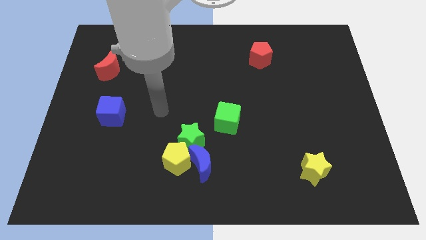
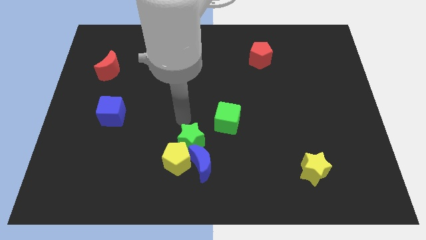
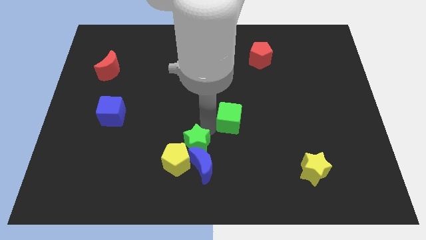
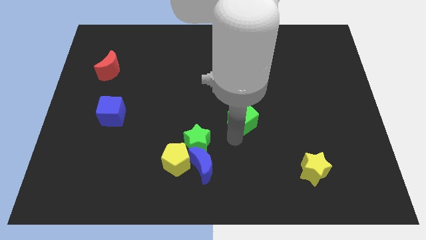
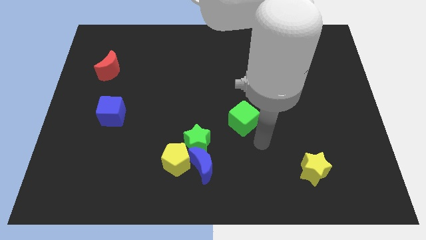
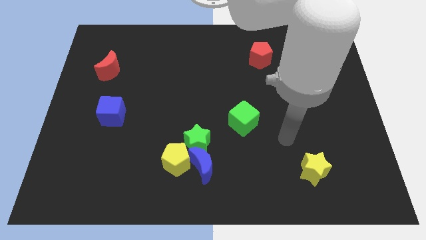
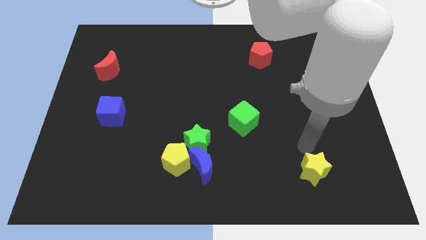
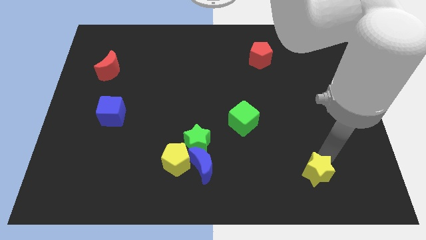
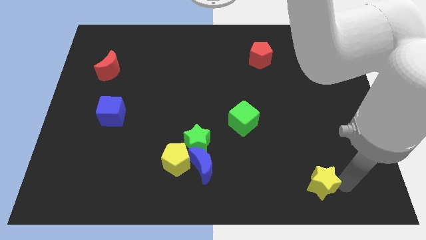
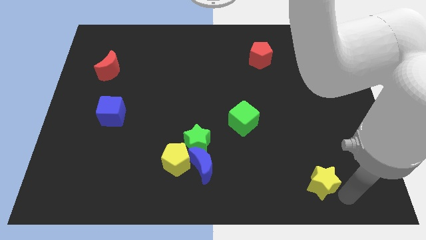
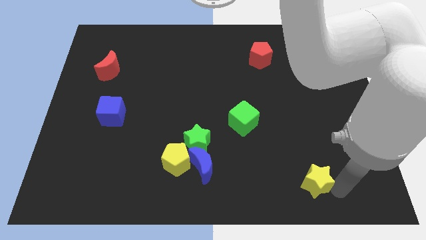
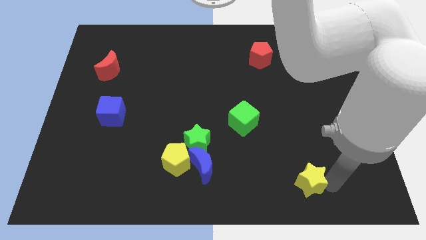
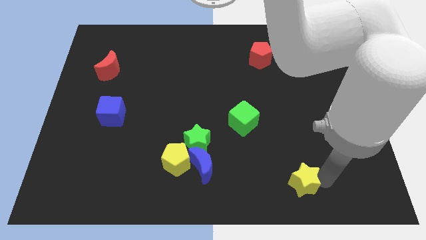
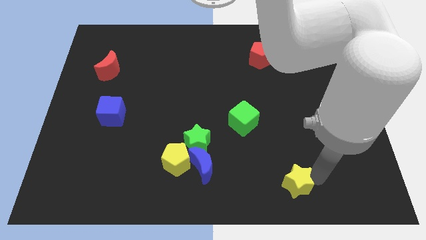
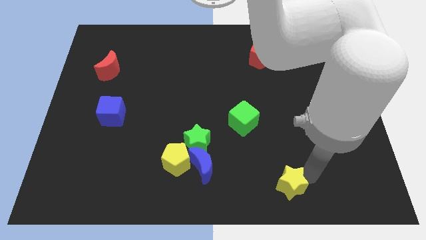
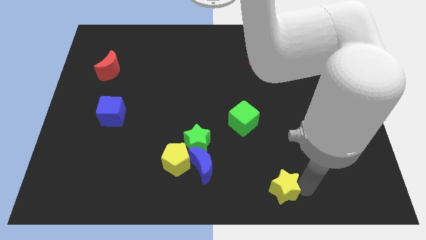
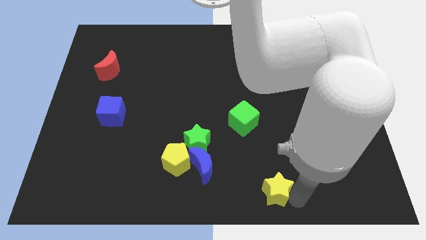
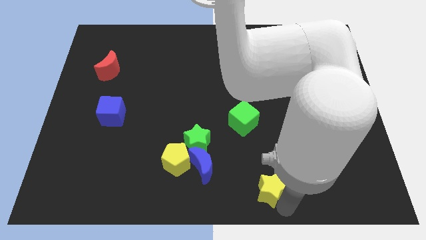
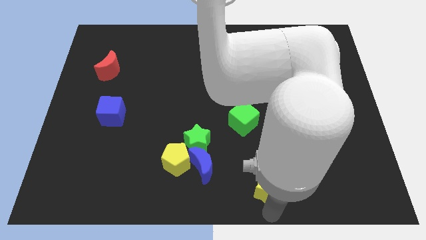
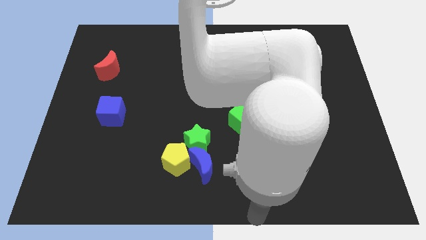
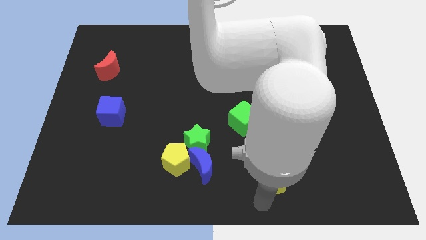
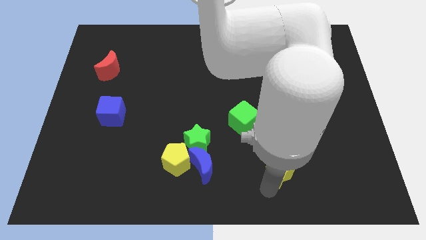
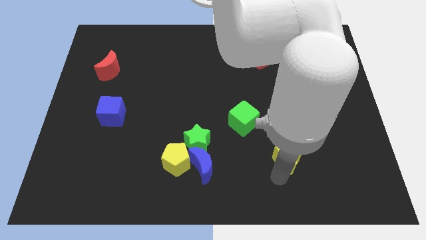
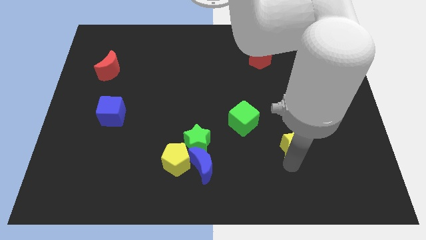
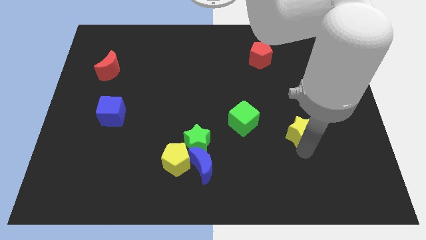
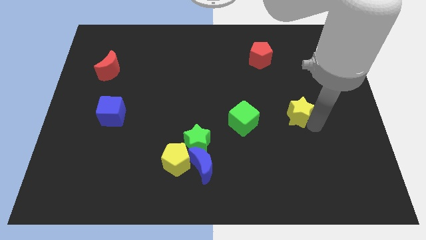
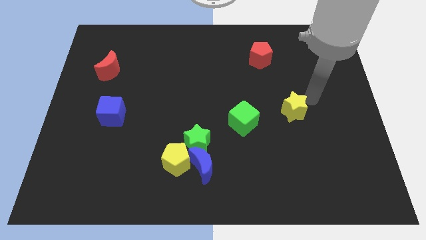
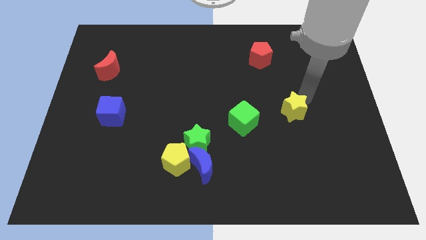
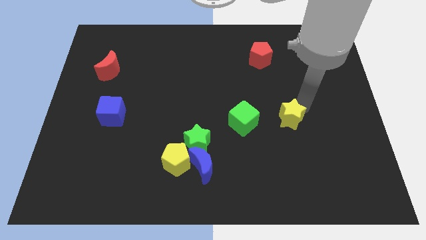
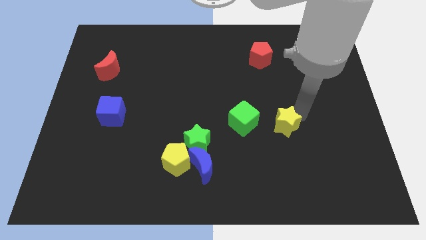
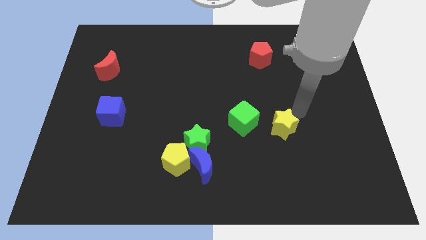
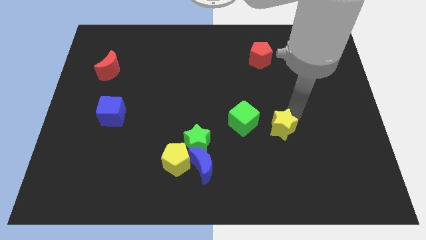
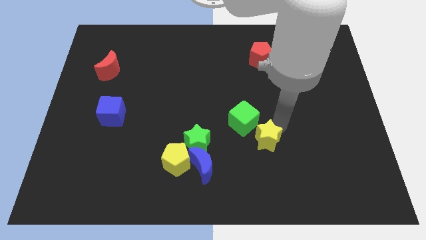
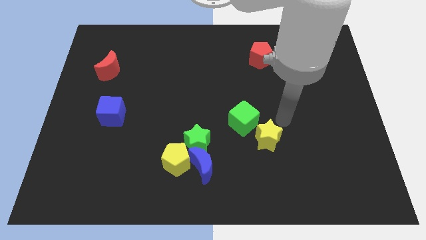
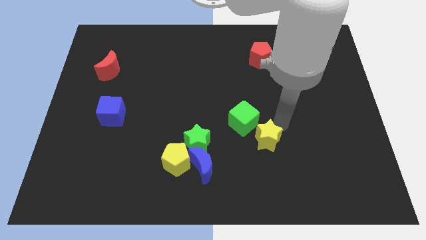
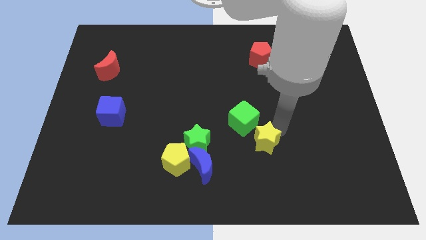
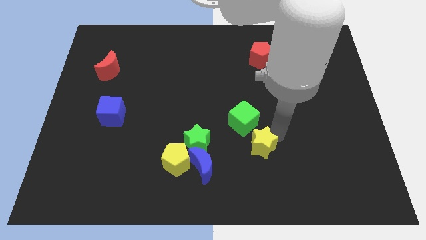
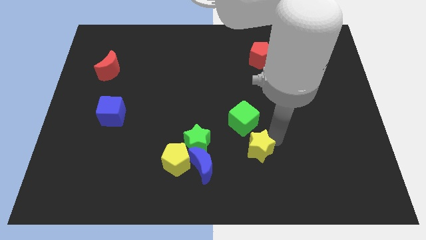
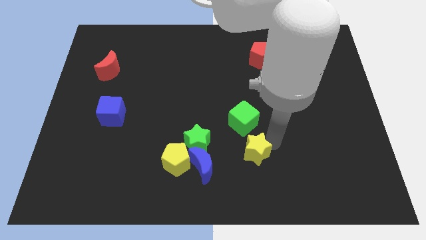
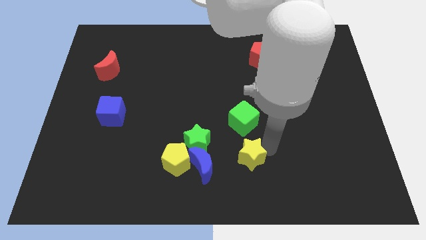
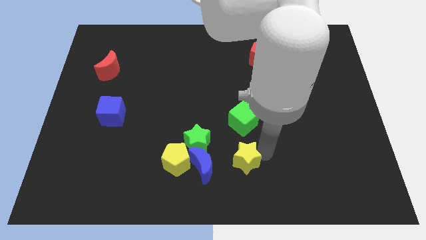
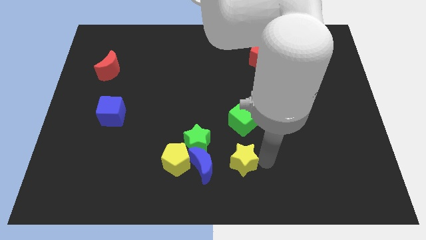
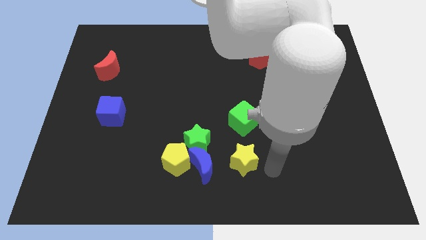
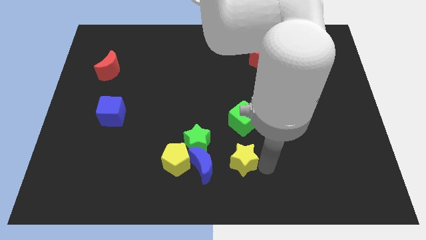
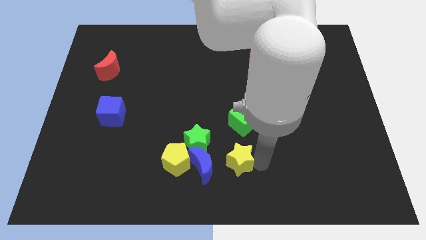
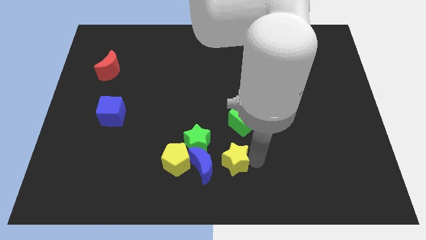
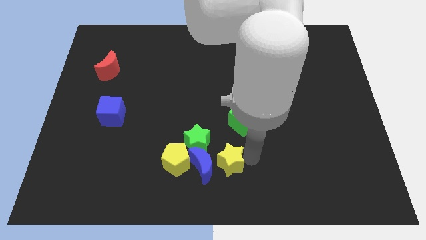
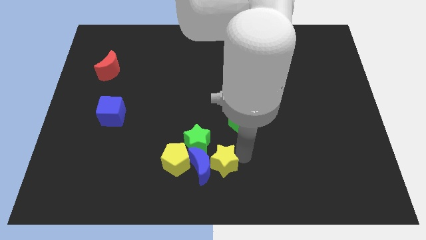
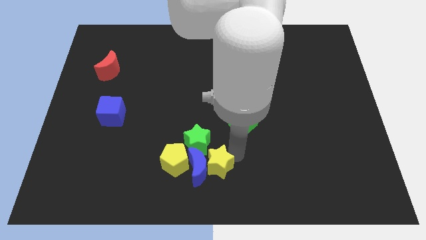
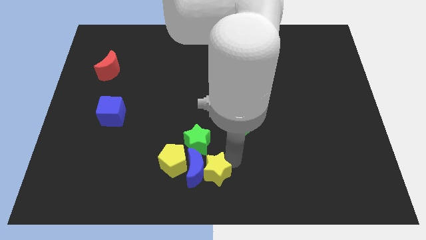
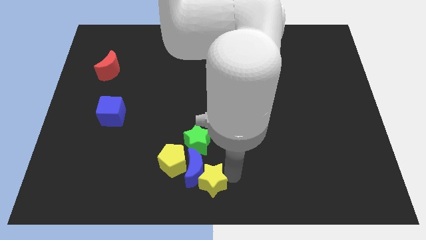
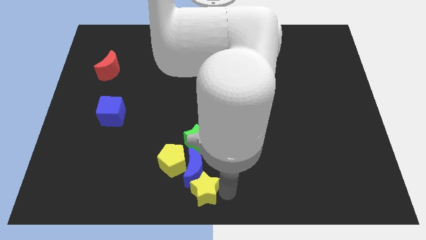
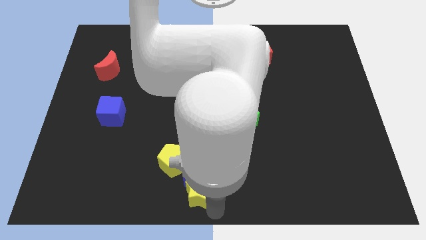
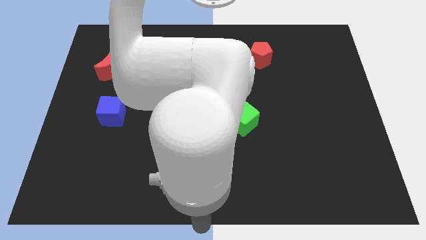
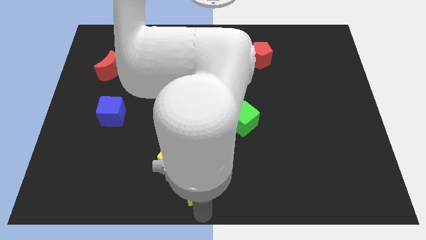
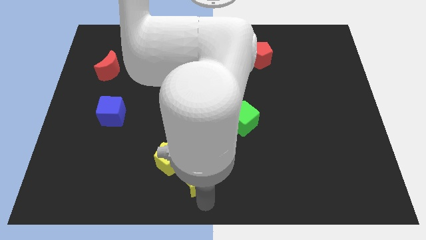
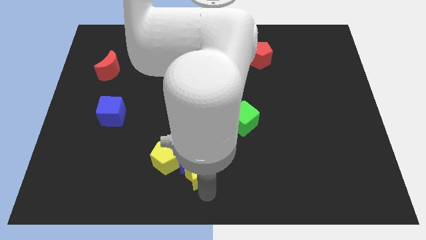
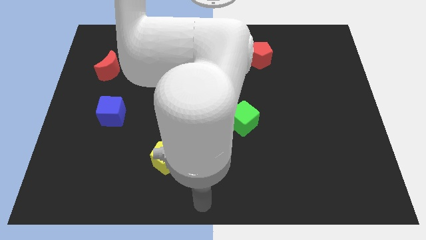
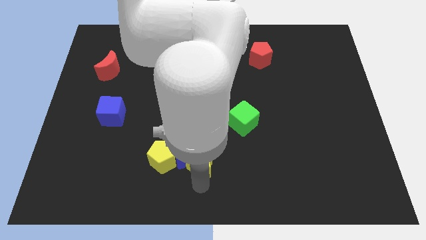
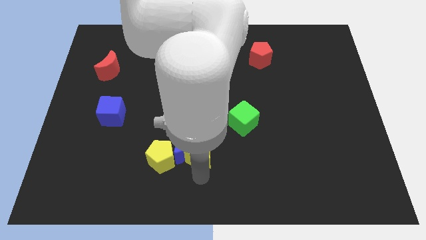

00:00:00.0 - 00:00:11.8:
move the yellow star next to the green star

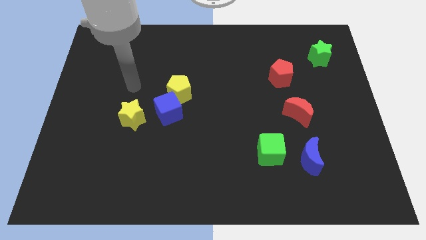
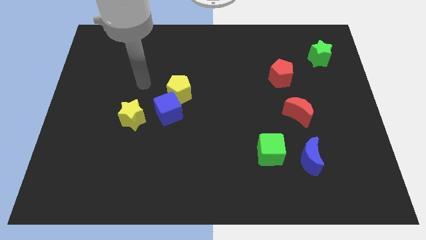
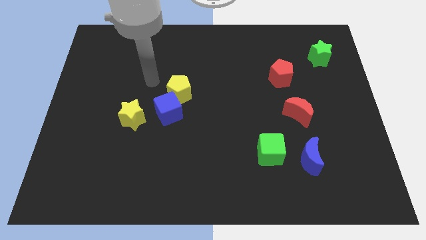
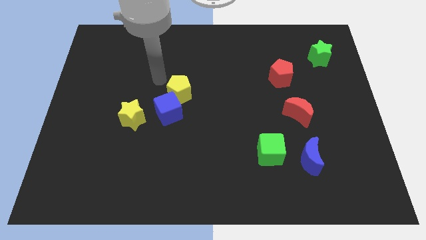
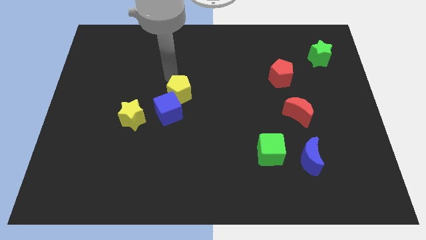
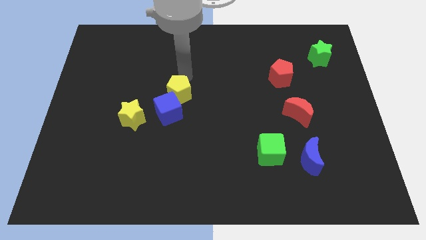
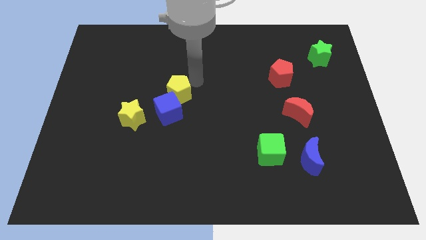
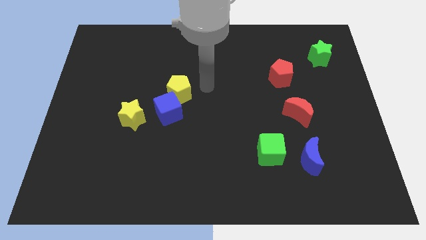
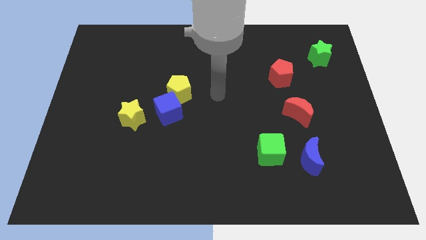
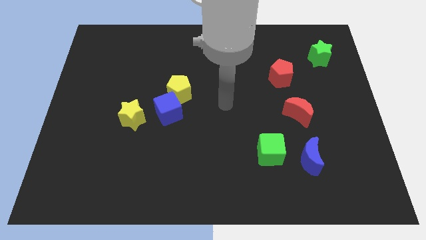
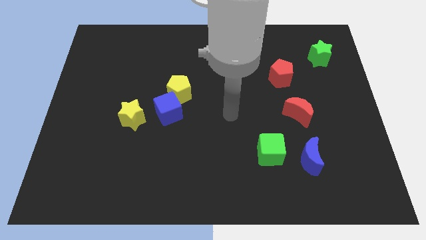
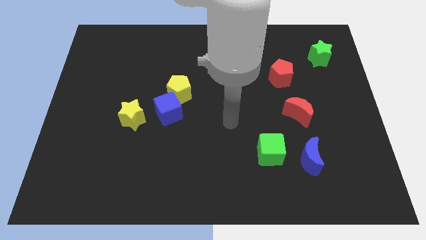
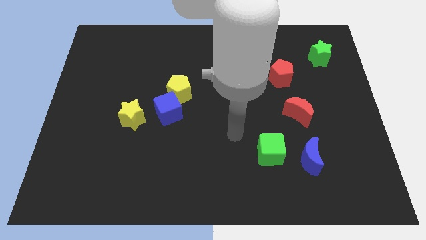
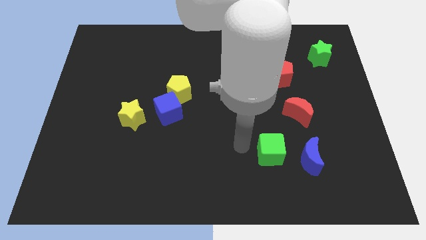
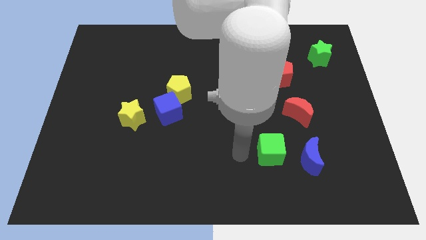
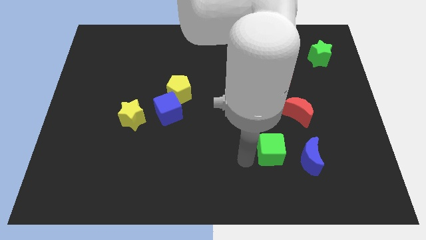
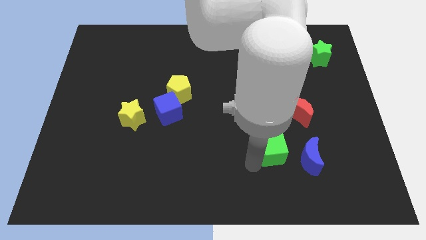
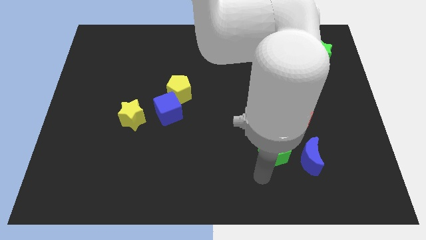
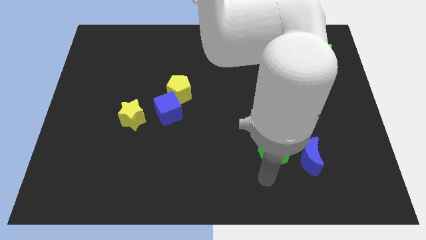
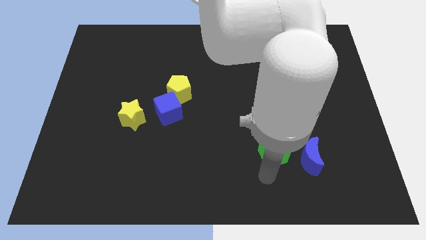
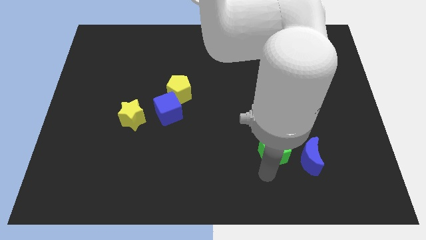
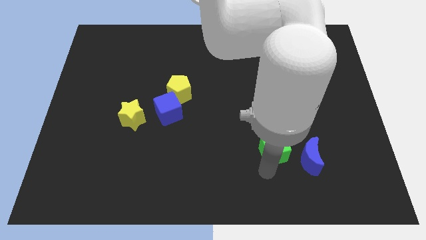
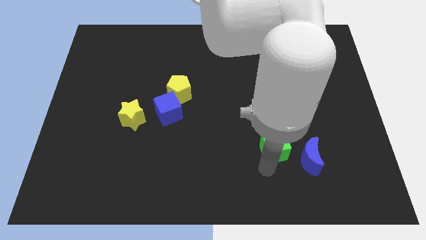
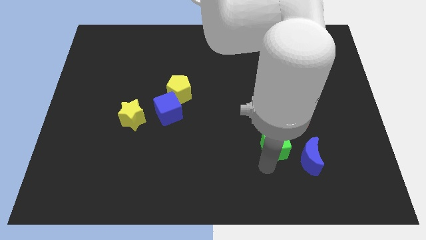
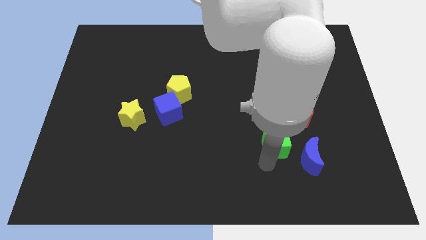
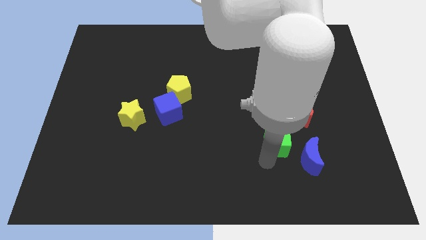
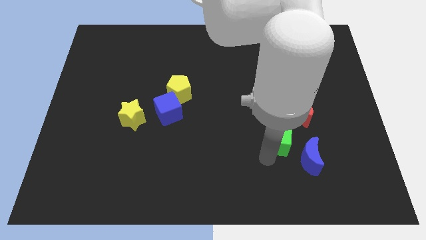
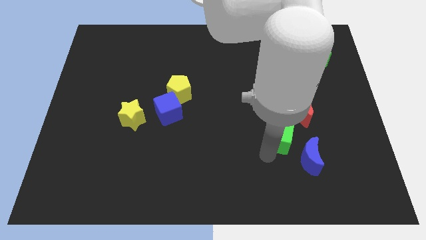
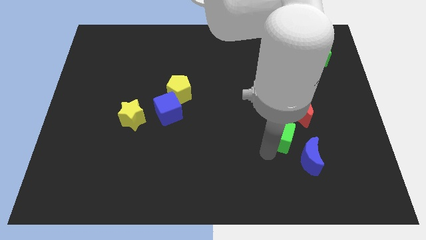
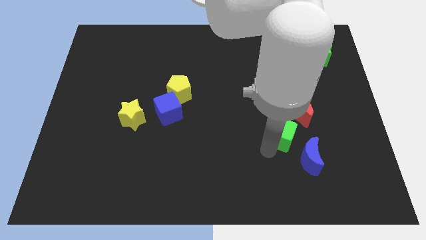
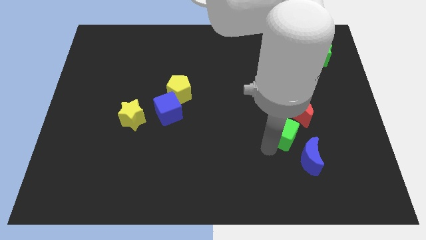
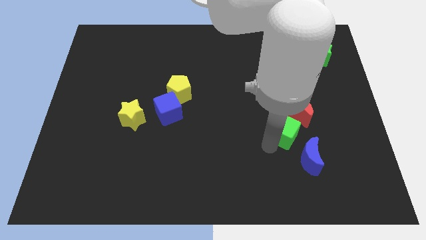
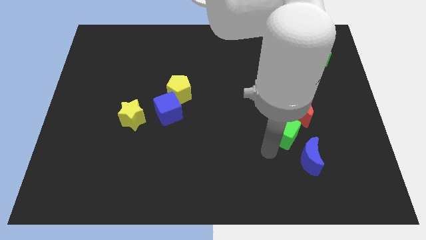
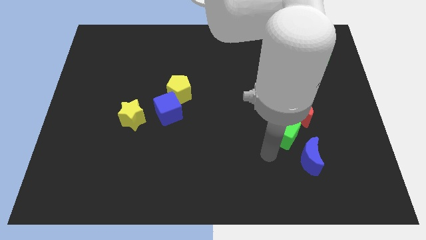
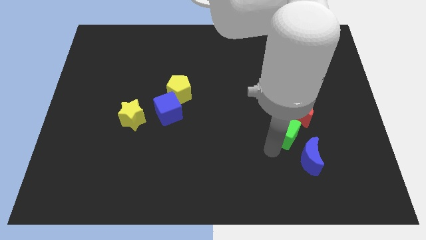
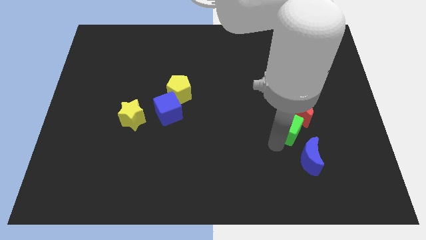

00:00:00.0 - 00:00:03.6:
put the green cube towards the red moon
